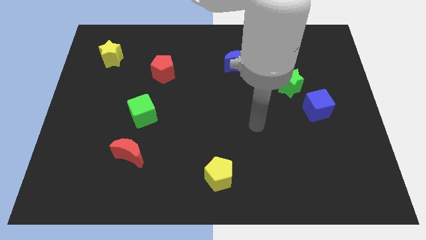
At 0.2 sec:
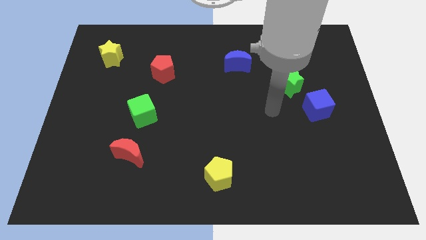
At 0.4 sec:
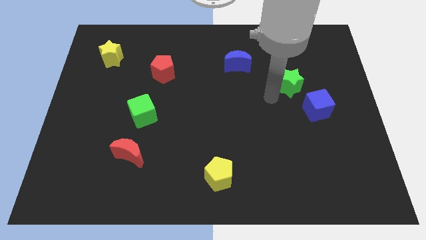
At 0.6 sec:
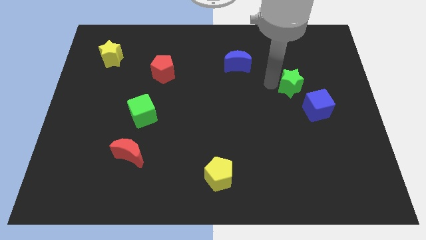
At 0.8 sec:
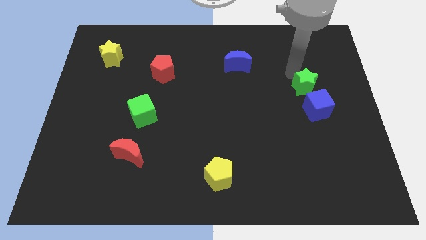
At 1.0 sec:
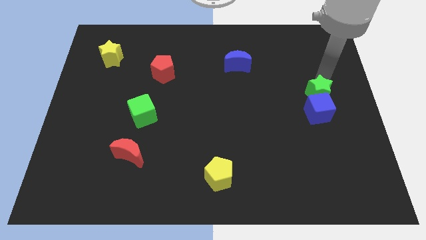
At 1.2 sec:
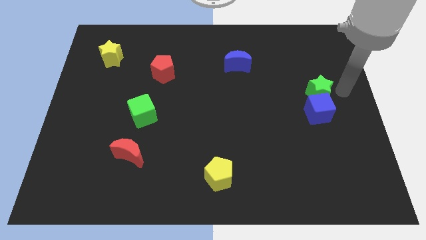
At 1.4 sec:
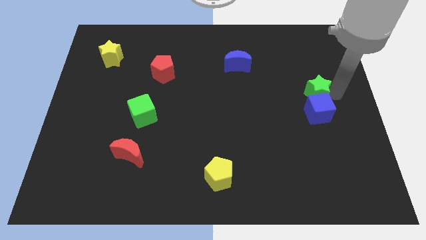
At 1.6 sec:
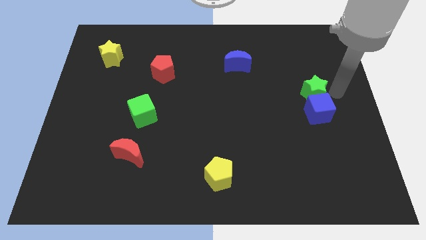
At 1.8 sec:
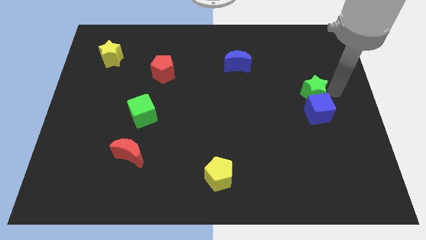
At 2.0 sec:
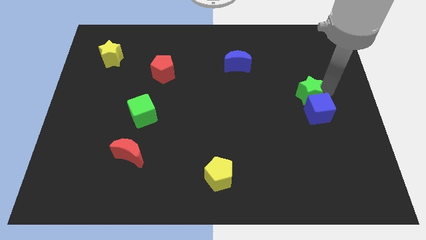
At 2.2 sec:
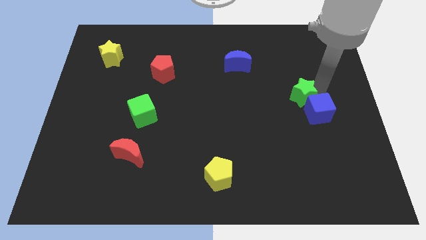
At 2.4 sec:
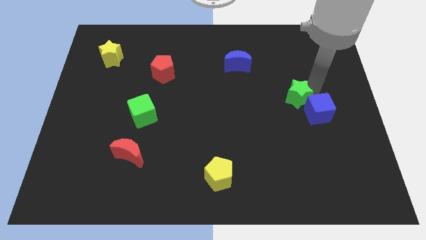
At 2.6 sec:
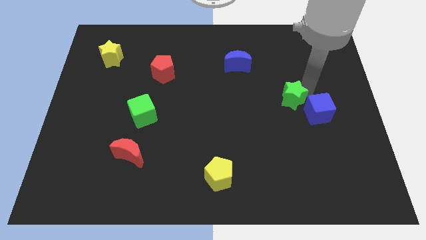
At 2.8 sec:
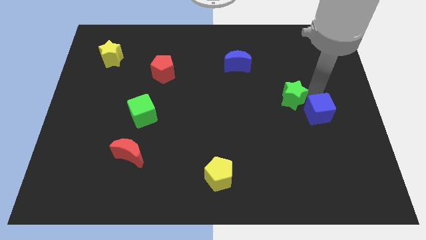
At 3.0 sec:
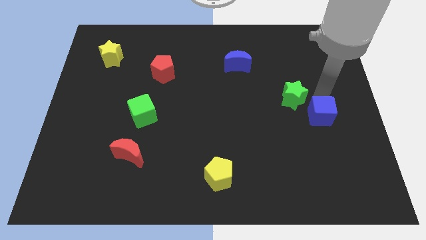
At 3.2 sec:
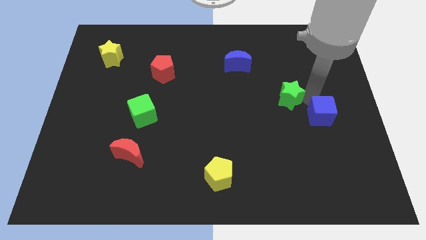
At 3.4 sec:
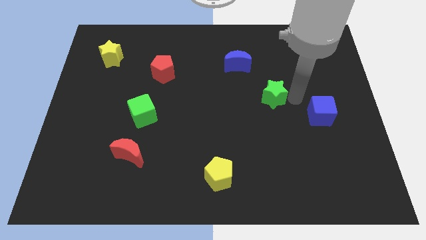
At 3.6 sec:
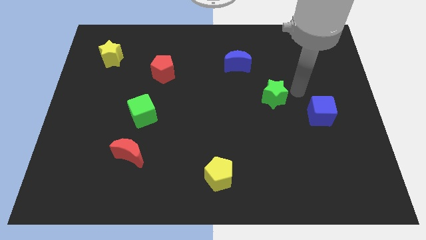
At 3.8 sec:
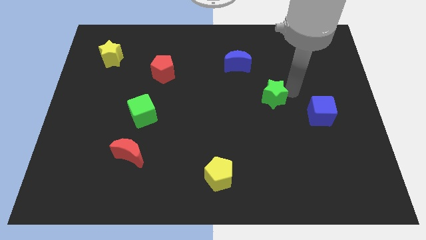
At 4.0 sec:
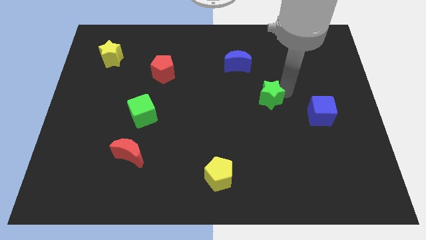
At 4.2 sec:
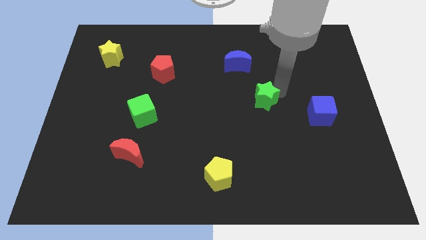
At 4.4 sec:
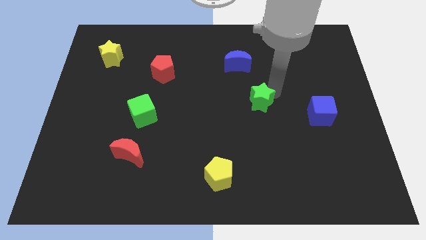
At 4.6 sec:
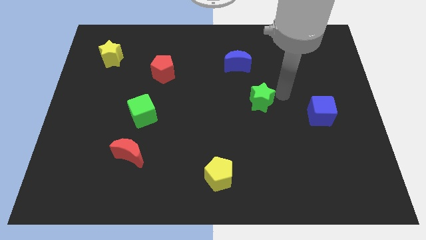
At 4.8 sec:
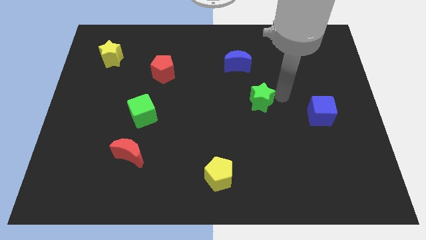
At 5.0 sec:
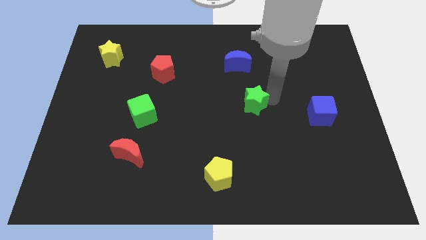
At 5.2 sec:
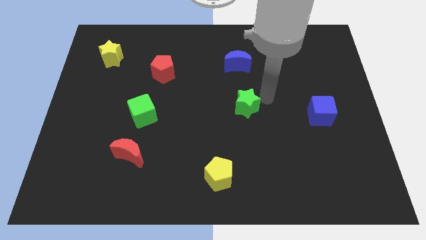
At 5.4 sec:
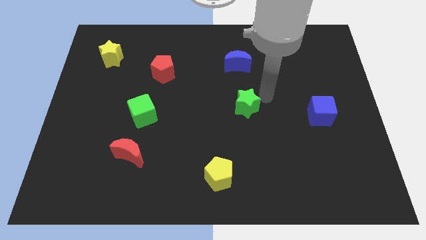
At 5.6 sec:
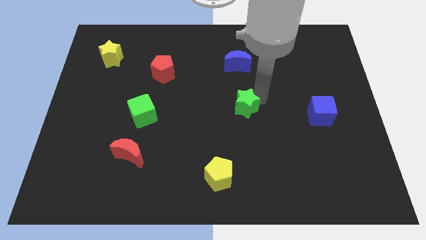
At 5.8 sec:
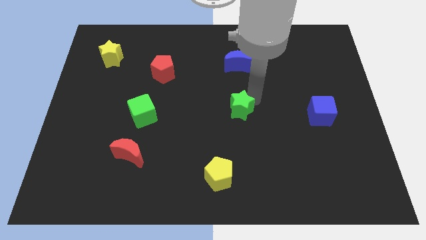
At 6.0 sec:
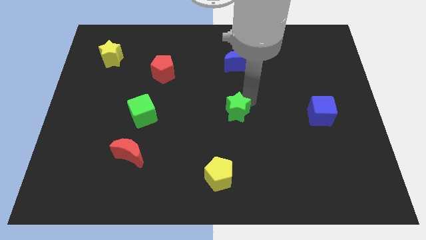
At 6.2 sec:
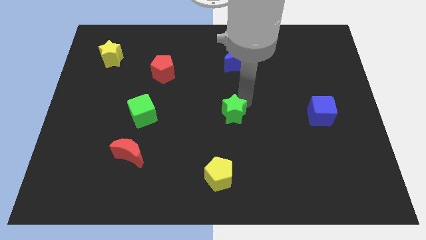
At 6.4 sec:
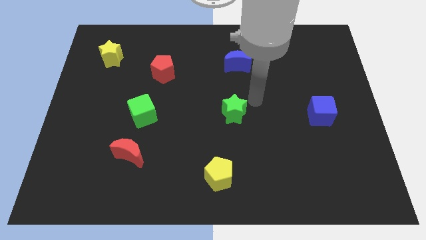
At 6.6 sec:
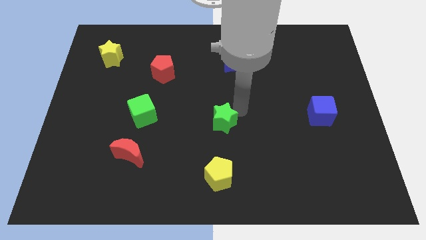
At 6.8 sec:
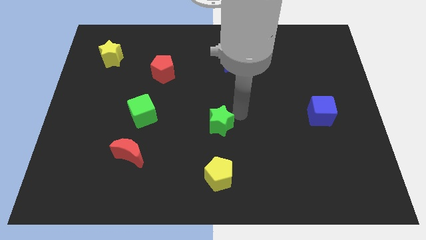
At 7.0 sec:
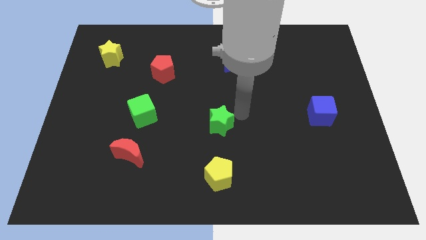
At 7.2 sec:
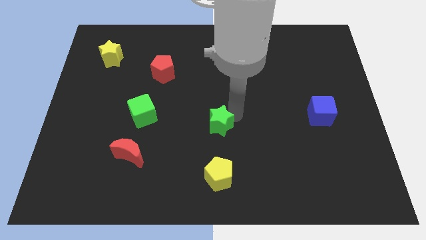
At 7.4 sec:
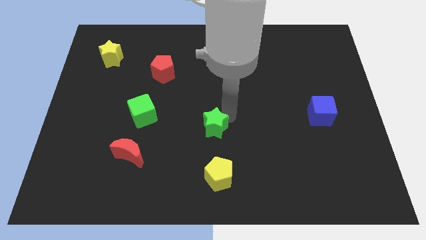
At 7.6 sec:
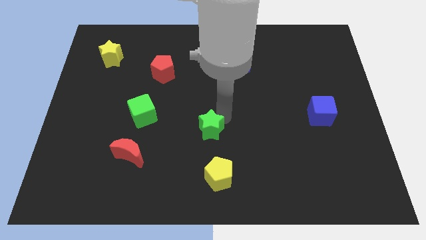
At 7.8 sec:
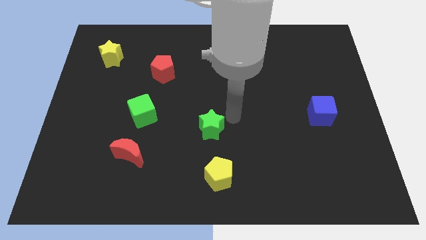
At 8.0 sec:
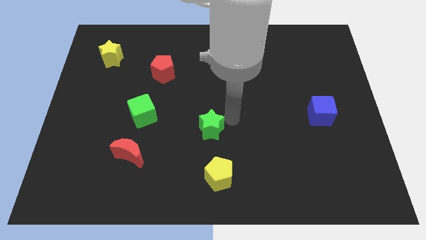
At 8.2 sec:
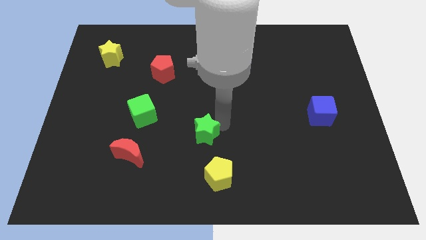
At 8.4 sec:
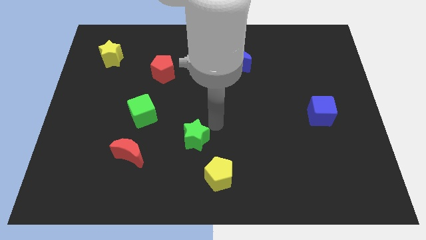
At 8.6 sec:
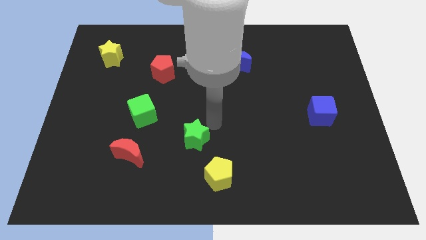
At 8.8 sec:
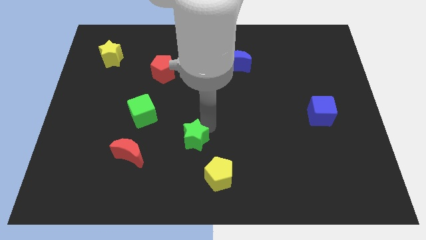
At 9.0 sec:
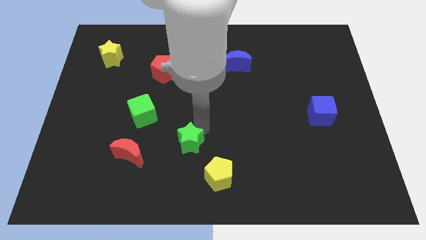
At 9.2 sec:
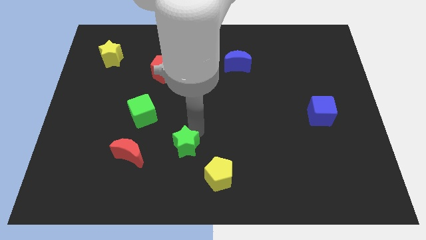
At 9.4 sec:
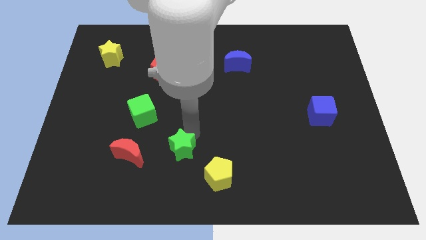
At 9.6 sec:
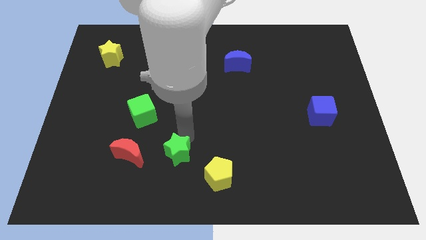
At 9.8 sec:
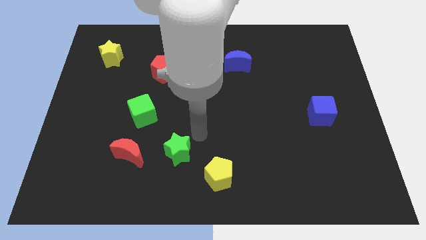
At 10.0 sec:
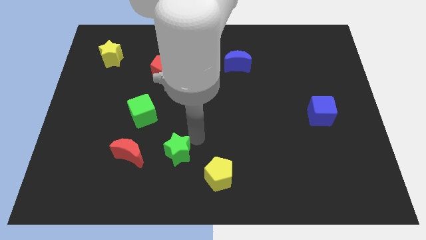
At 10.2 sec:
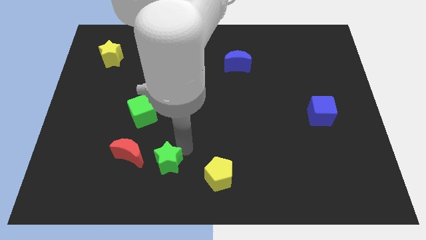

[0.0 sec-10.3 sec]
push the green star to the bottom right side of the red moon

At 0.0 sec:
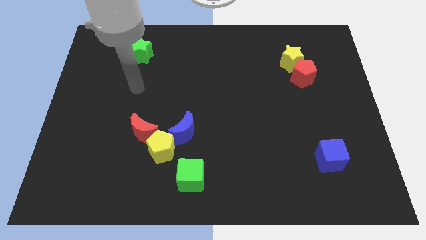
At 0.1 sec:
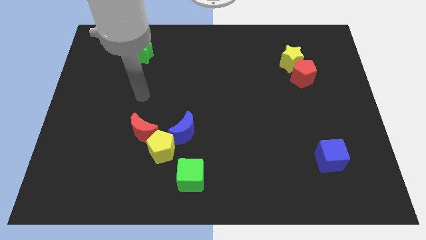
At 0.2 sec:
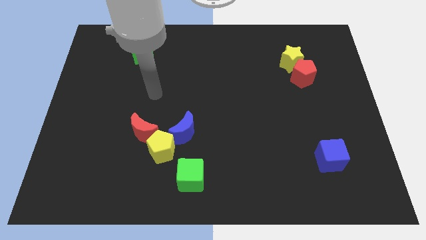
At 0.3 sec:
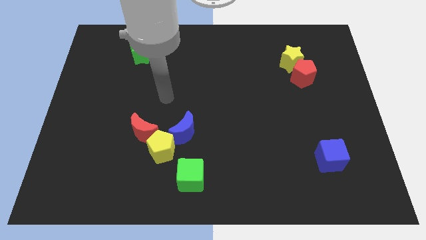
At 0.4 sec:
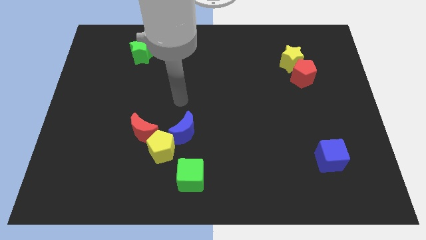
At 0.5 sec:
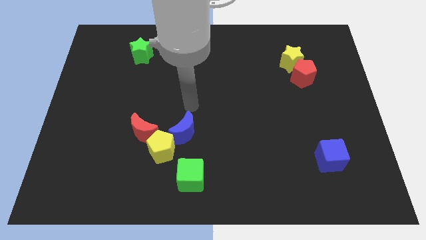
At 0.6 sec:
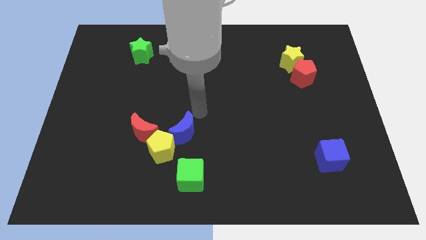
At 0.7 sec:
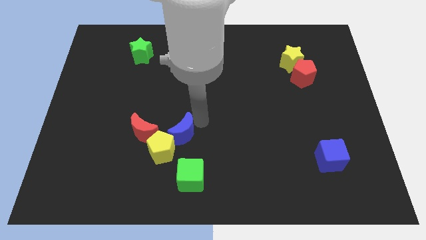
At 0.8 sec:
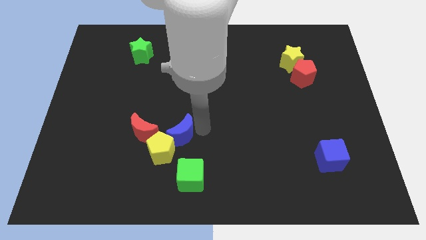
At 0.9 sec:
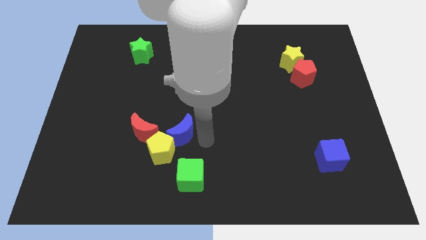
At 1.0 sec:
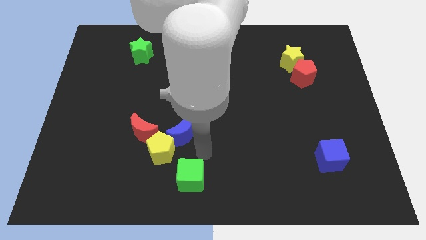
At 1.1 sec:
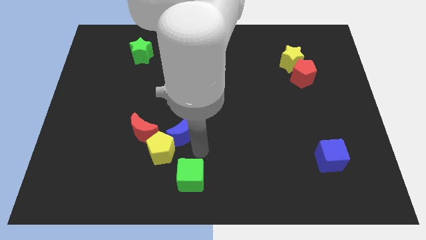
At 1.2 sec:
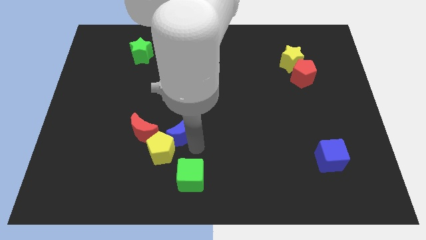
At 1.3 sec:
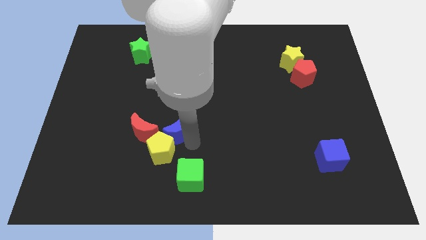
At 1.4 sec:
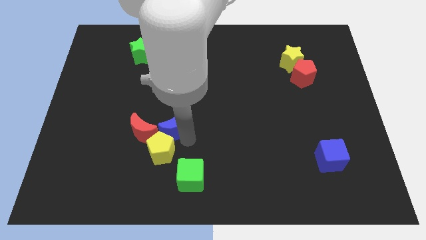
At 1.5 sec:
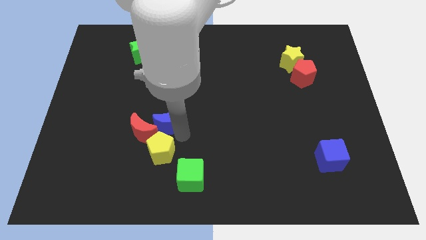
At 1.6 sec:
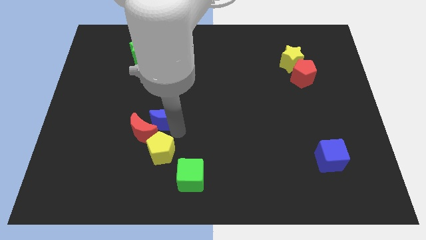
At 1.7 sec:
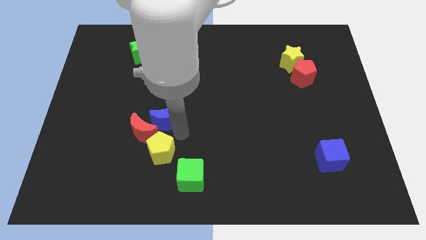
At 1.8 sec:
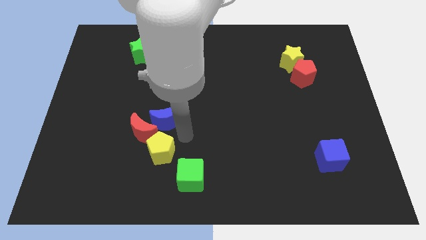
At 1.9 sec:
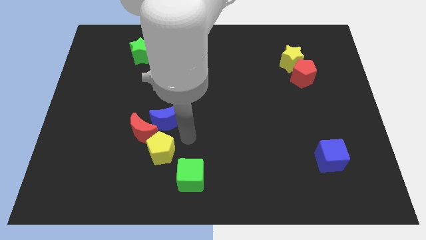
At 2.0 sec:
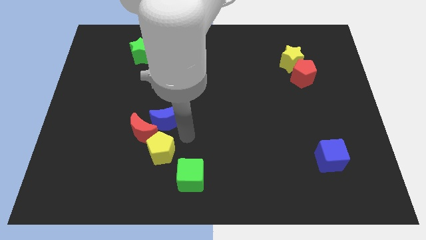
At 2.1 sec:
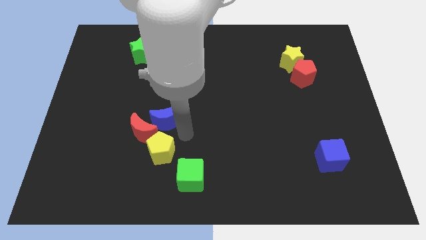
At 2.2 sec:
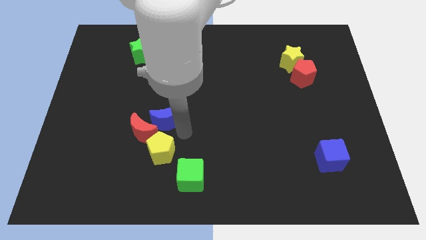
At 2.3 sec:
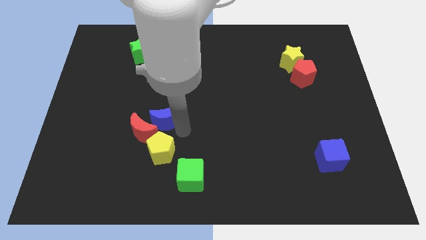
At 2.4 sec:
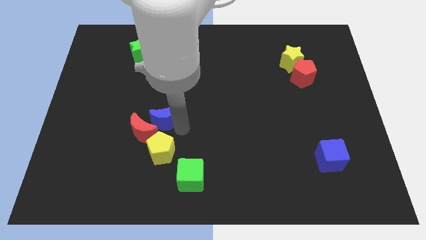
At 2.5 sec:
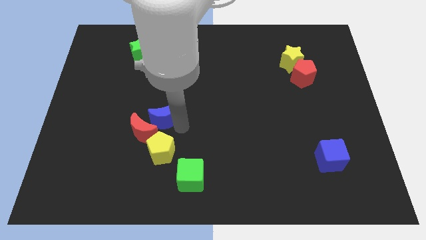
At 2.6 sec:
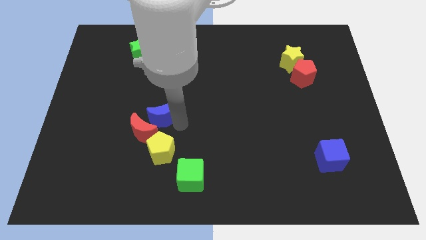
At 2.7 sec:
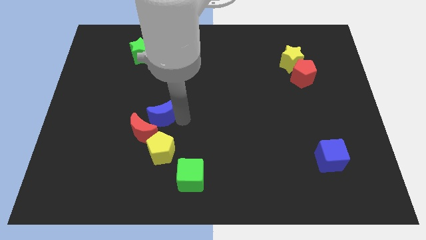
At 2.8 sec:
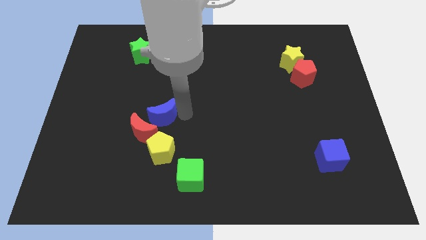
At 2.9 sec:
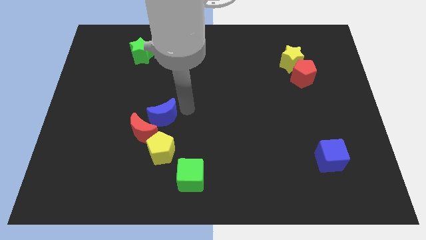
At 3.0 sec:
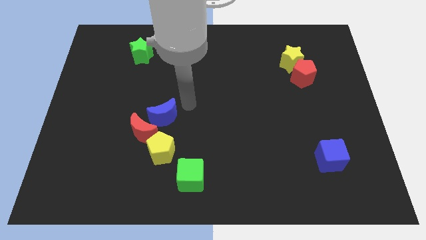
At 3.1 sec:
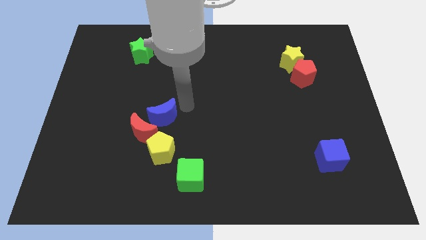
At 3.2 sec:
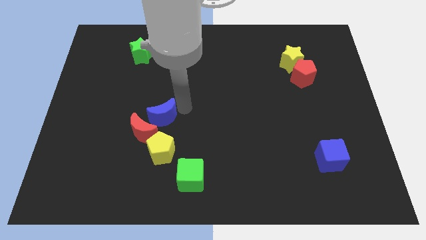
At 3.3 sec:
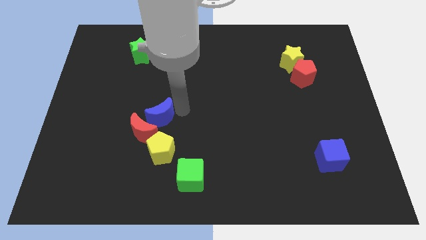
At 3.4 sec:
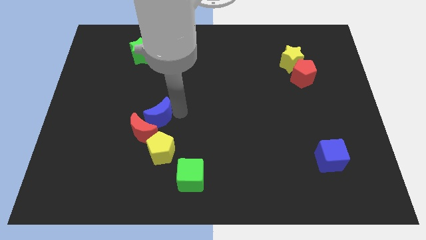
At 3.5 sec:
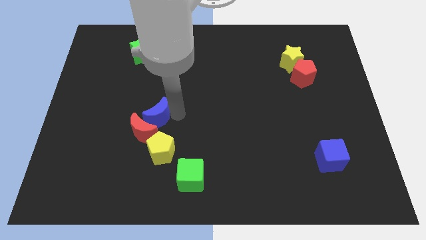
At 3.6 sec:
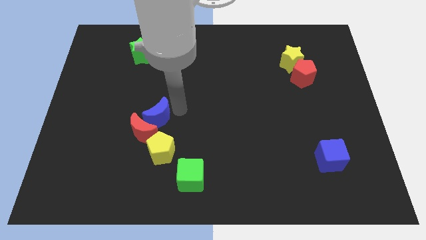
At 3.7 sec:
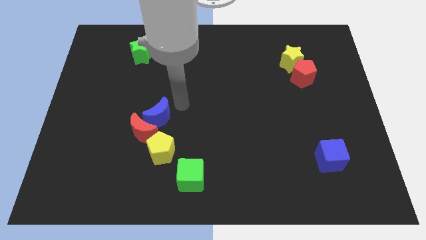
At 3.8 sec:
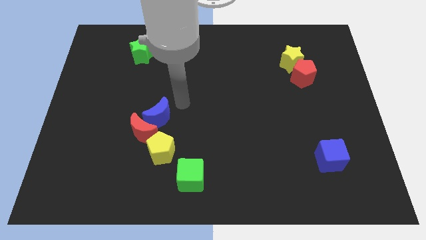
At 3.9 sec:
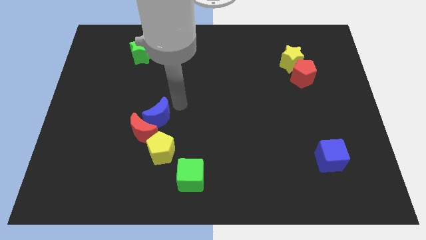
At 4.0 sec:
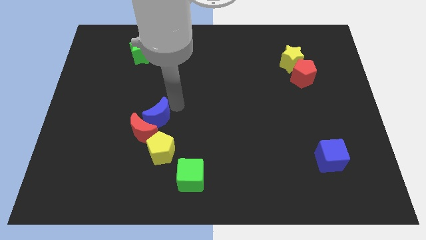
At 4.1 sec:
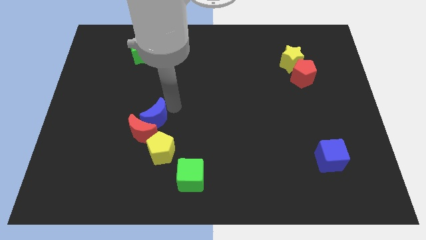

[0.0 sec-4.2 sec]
put the blue moon diagonally up and to the left of the yellow pentagon
